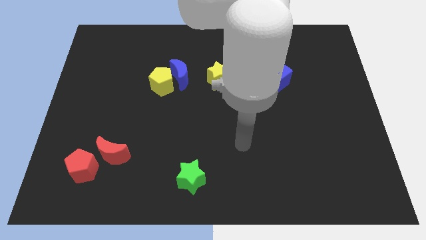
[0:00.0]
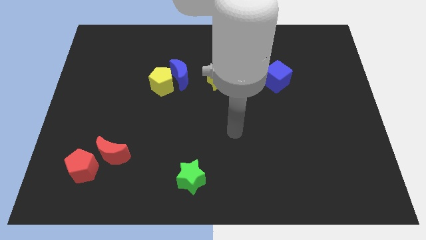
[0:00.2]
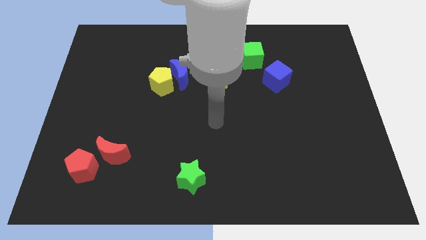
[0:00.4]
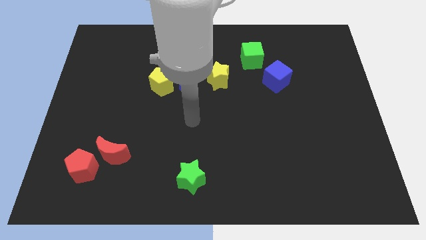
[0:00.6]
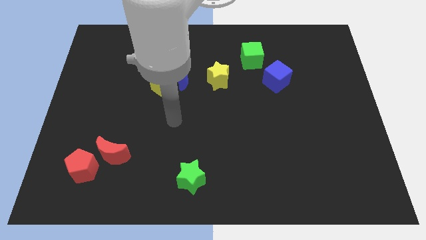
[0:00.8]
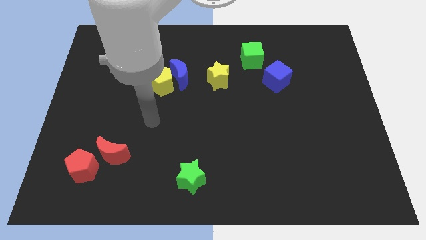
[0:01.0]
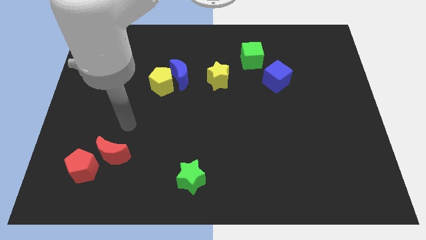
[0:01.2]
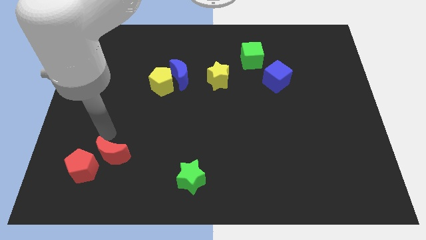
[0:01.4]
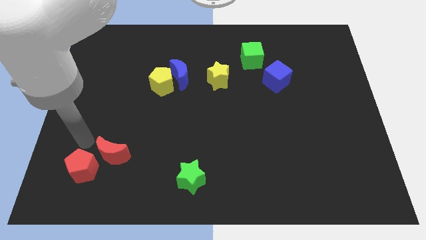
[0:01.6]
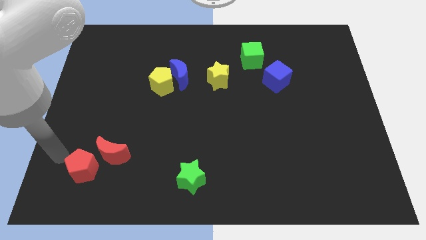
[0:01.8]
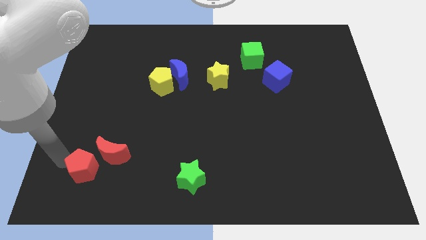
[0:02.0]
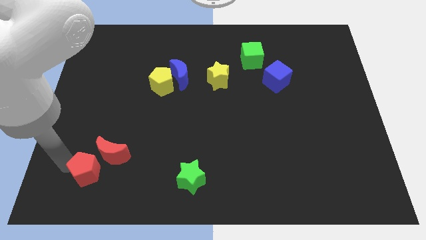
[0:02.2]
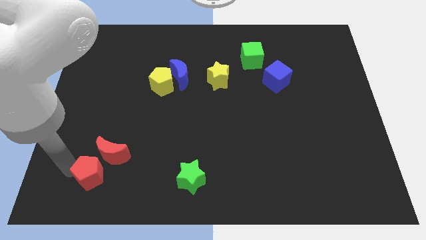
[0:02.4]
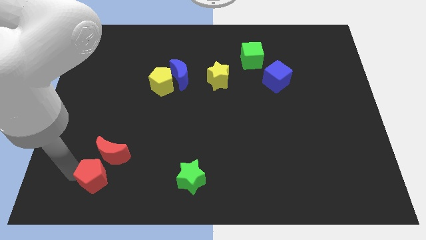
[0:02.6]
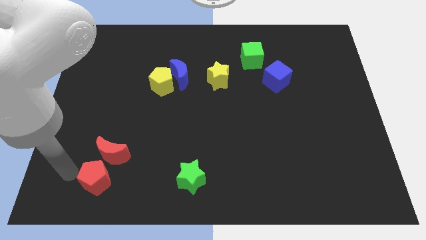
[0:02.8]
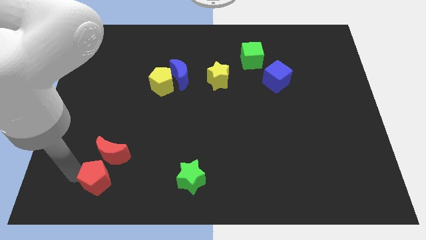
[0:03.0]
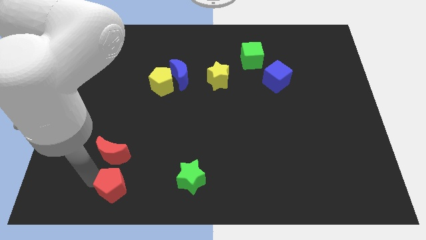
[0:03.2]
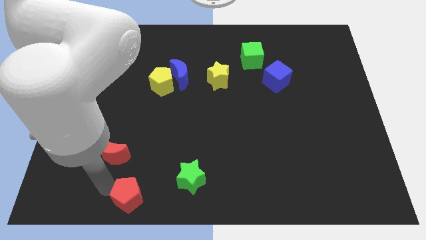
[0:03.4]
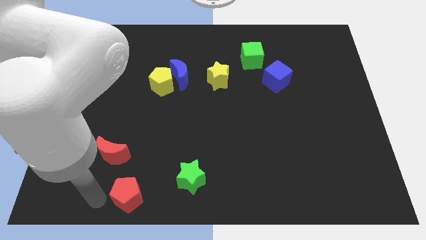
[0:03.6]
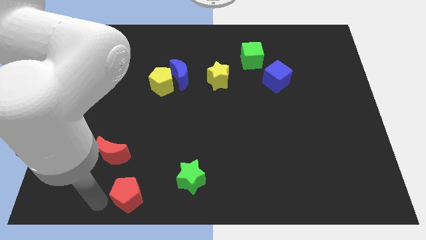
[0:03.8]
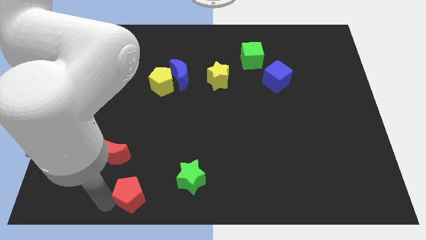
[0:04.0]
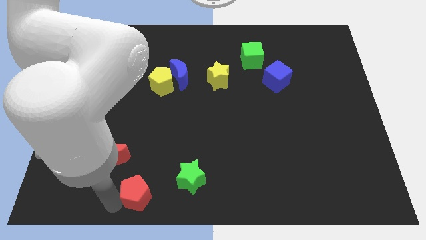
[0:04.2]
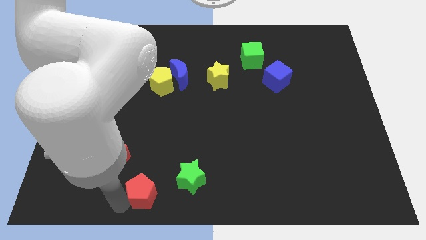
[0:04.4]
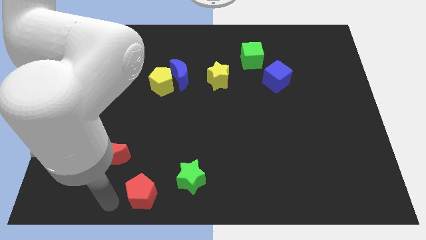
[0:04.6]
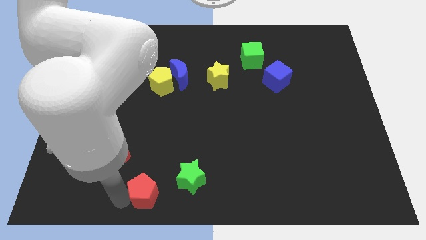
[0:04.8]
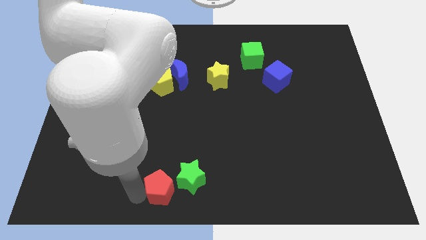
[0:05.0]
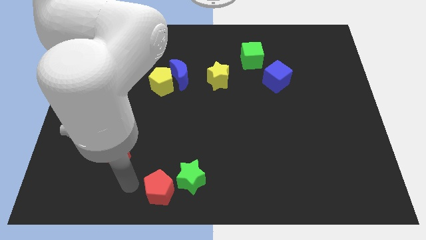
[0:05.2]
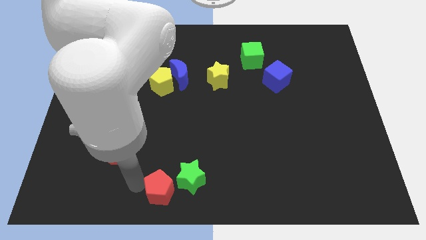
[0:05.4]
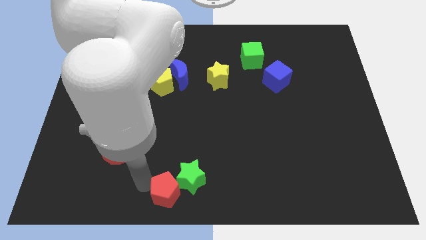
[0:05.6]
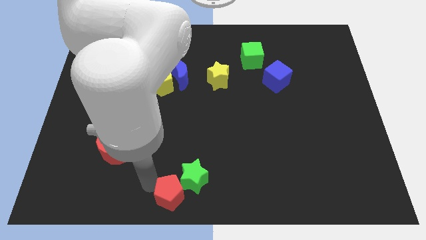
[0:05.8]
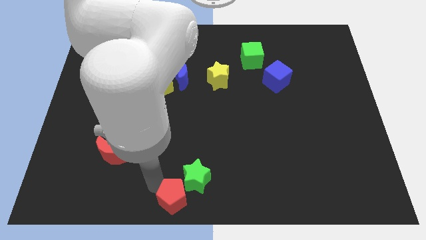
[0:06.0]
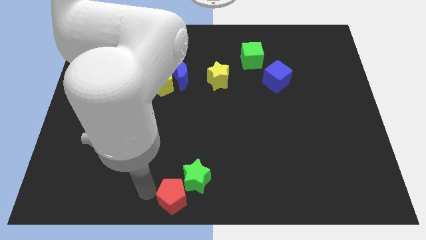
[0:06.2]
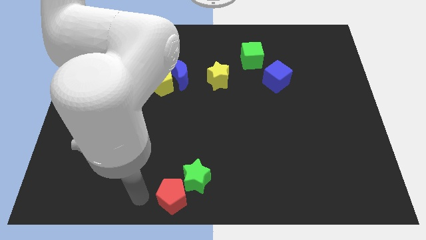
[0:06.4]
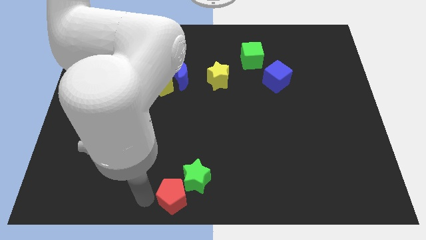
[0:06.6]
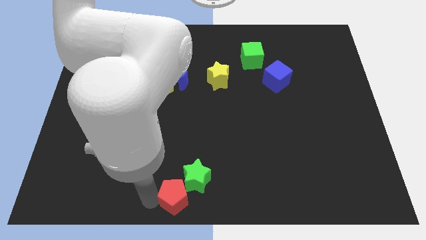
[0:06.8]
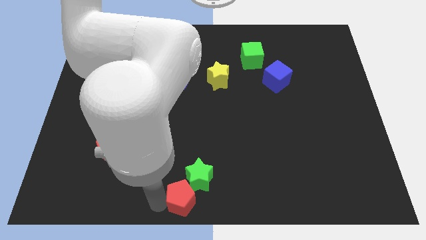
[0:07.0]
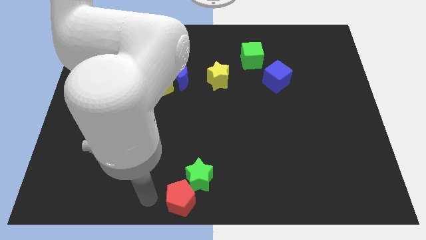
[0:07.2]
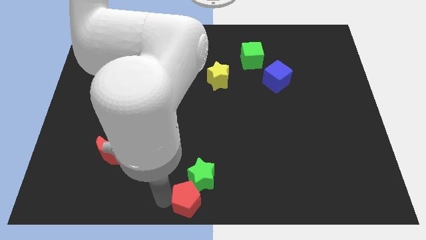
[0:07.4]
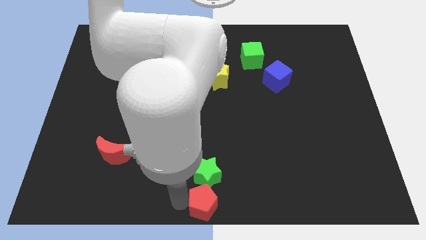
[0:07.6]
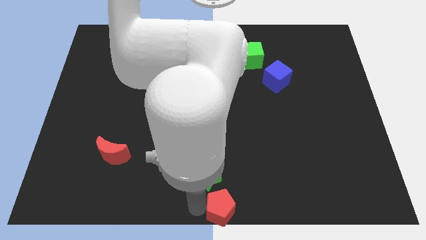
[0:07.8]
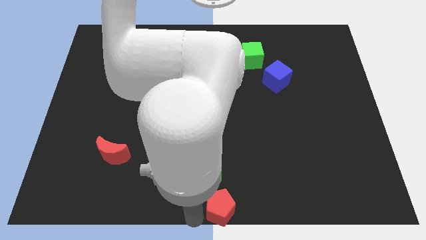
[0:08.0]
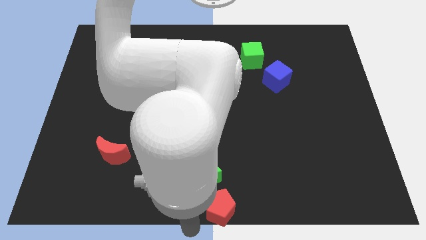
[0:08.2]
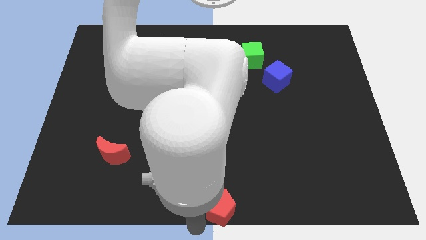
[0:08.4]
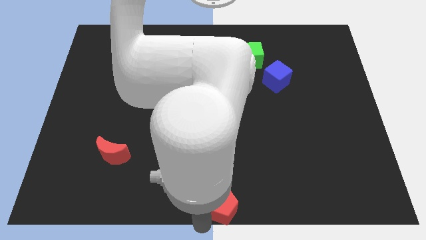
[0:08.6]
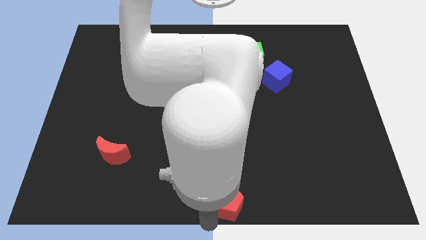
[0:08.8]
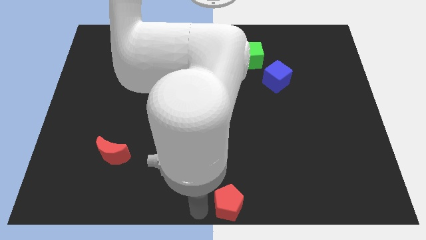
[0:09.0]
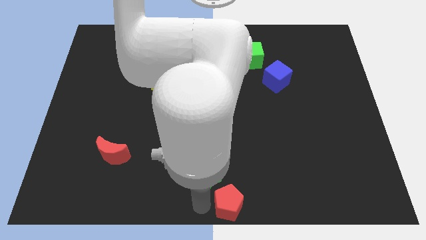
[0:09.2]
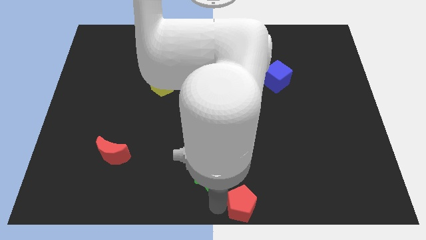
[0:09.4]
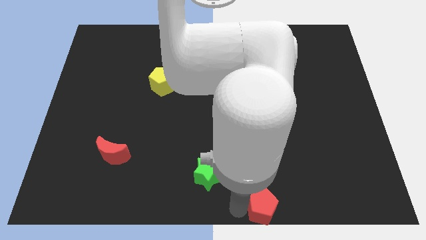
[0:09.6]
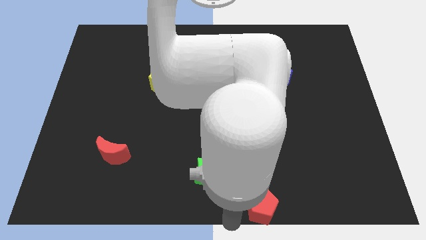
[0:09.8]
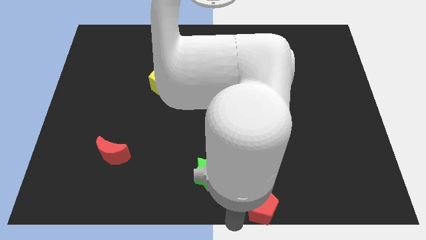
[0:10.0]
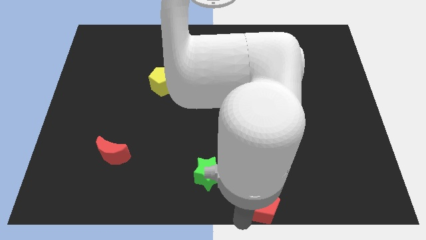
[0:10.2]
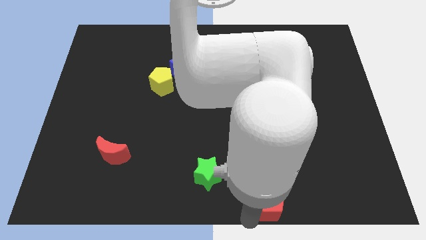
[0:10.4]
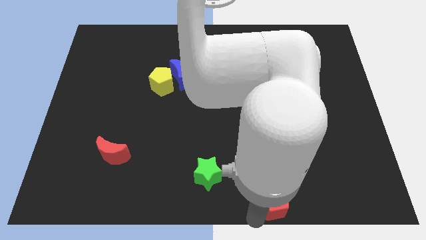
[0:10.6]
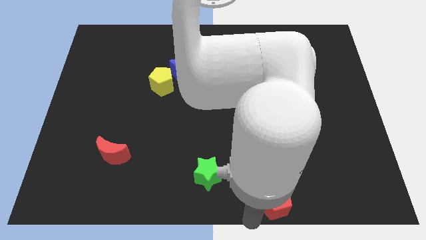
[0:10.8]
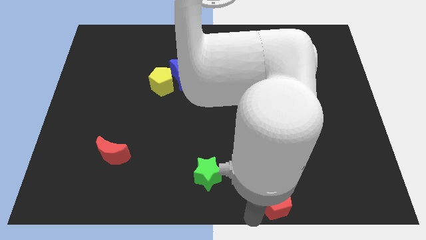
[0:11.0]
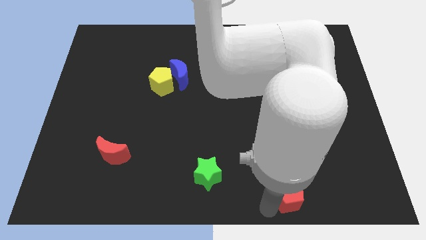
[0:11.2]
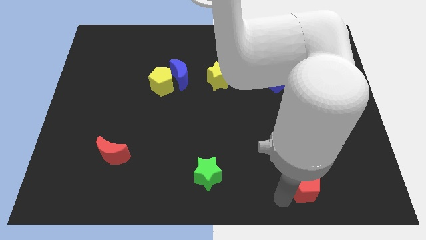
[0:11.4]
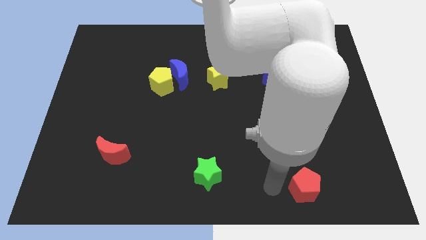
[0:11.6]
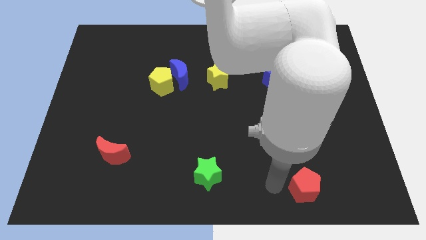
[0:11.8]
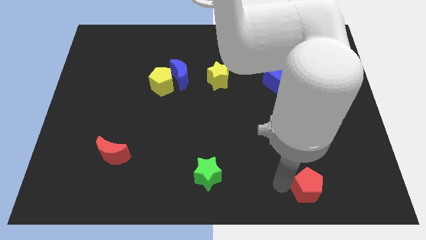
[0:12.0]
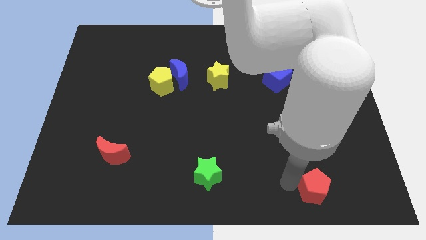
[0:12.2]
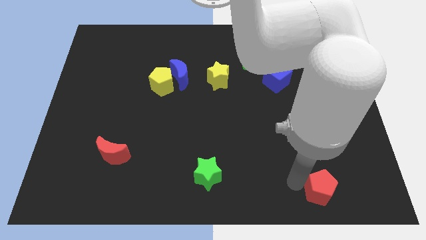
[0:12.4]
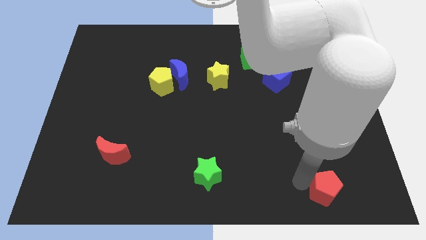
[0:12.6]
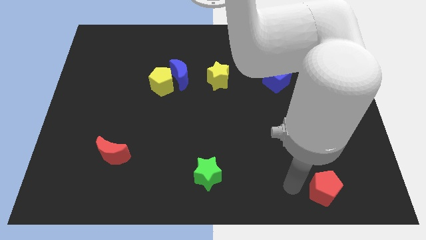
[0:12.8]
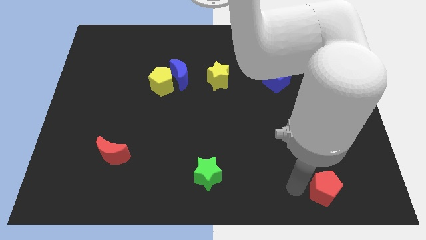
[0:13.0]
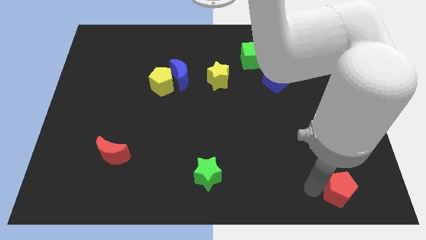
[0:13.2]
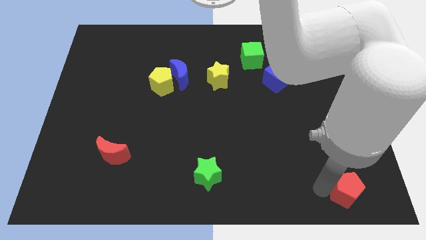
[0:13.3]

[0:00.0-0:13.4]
move the red pentagon to the lower right corner

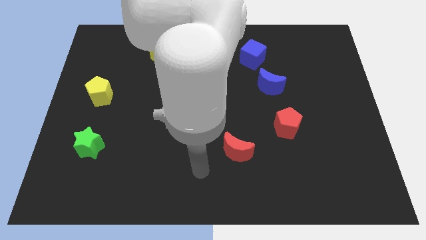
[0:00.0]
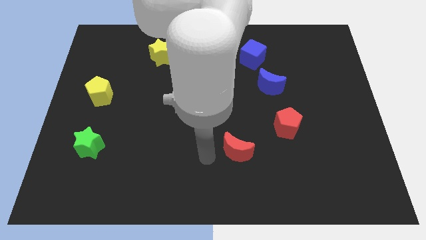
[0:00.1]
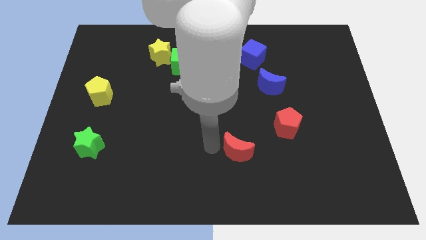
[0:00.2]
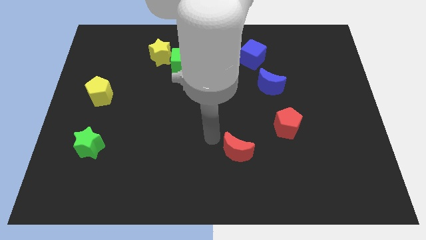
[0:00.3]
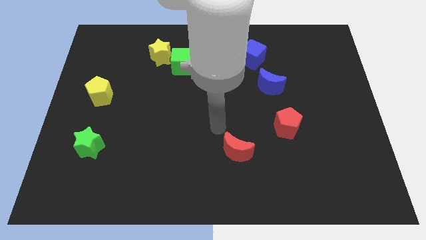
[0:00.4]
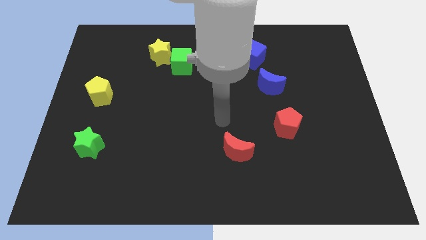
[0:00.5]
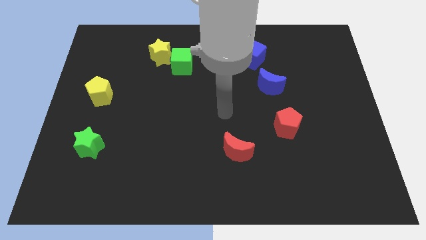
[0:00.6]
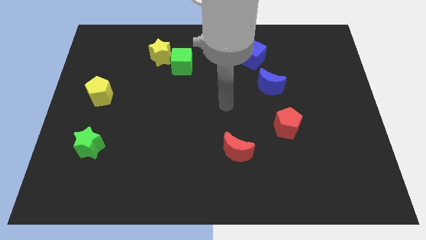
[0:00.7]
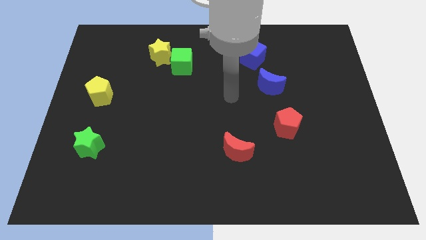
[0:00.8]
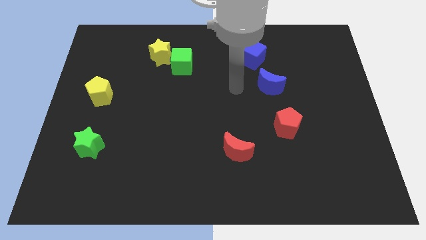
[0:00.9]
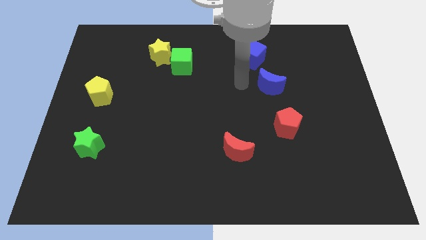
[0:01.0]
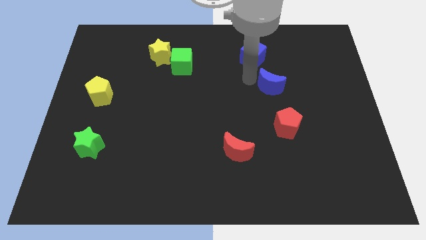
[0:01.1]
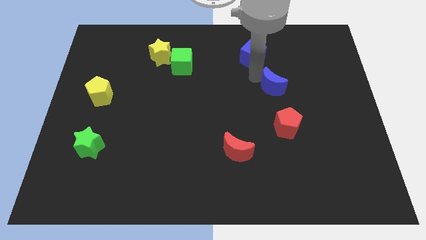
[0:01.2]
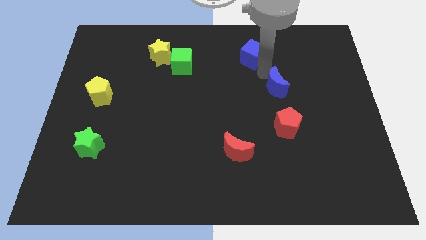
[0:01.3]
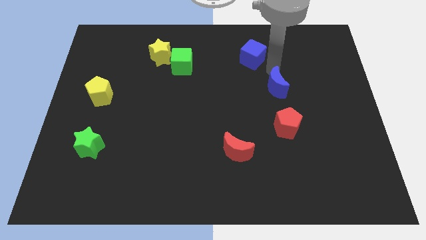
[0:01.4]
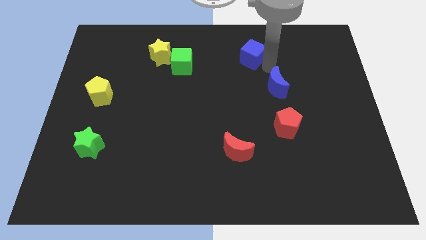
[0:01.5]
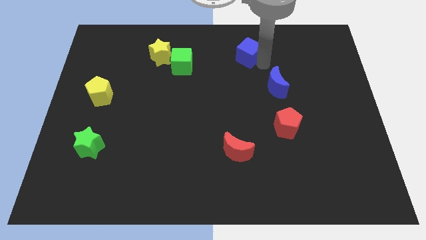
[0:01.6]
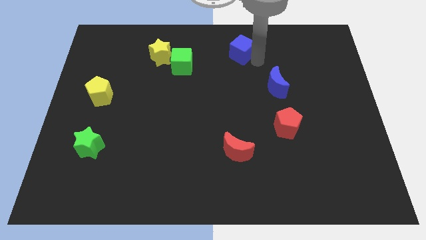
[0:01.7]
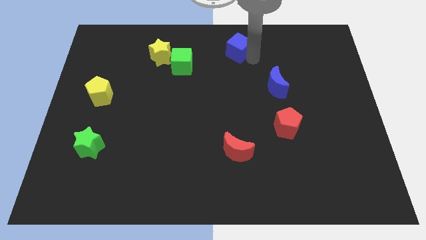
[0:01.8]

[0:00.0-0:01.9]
put the blue cube to the top side
